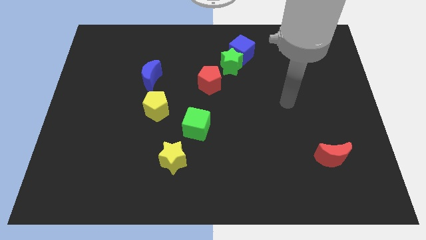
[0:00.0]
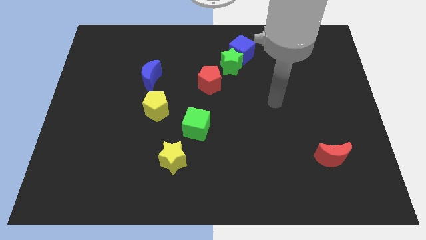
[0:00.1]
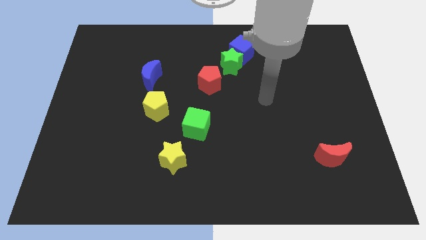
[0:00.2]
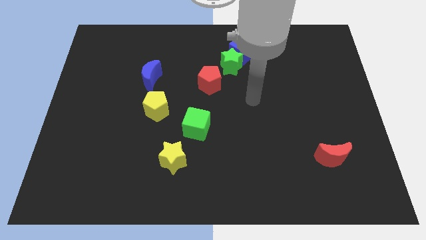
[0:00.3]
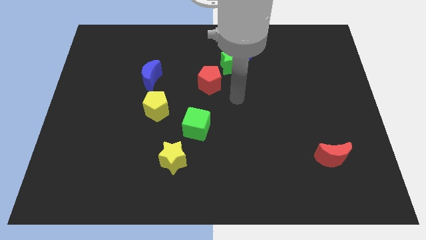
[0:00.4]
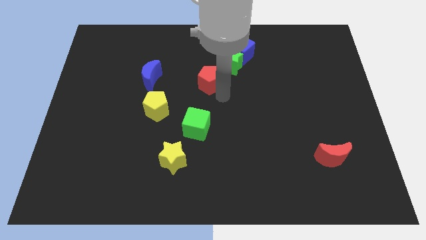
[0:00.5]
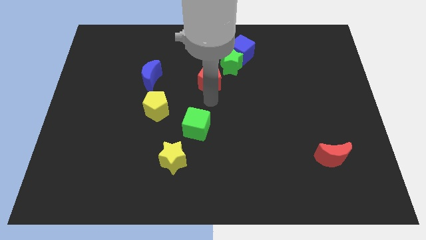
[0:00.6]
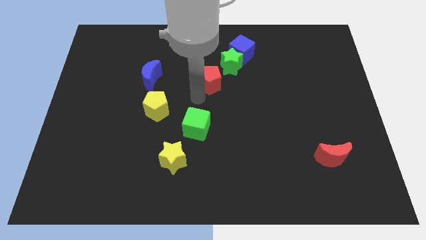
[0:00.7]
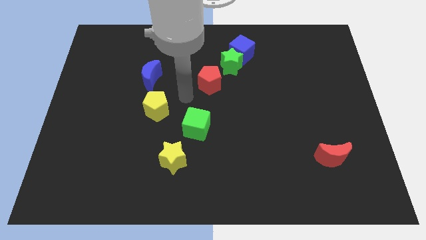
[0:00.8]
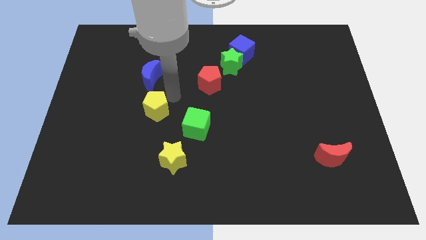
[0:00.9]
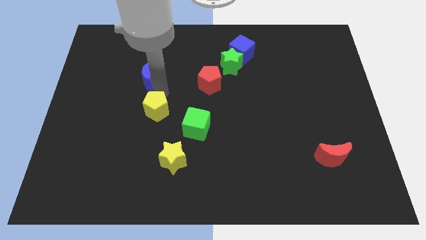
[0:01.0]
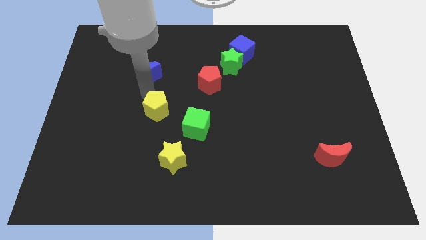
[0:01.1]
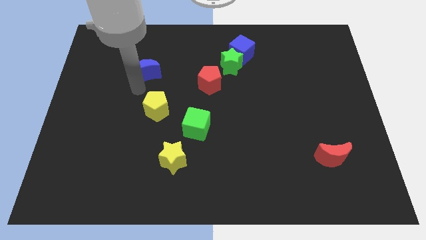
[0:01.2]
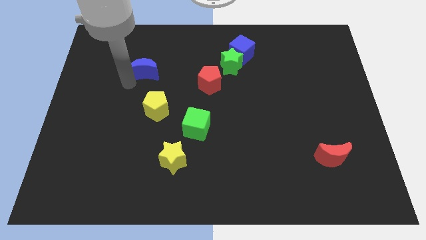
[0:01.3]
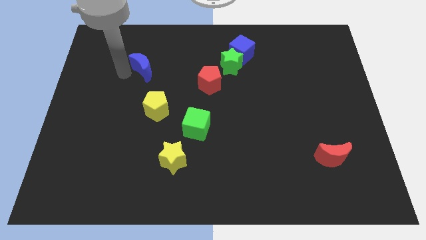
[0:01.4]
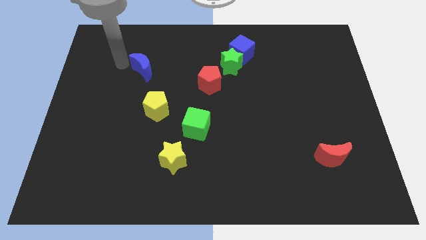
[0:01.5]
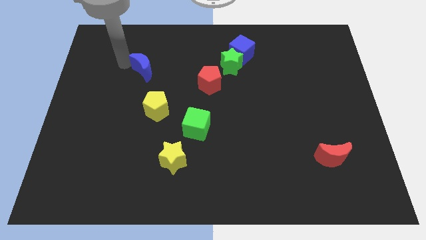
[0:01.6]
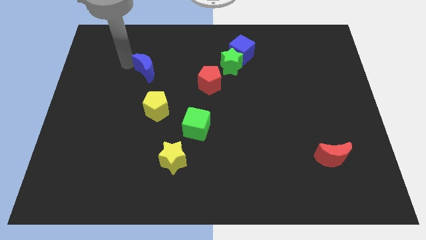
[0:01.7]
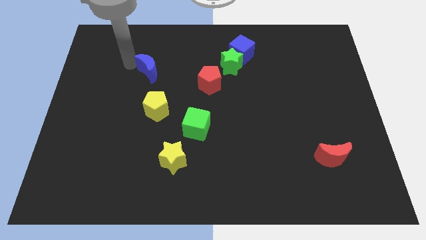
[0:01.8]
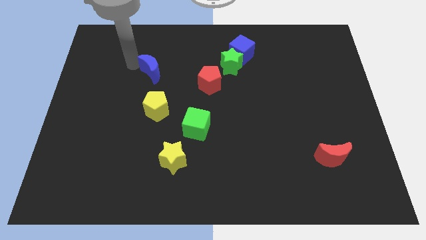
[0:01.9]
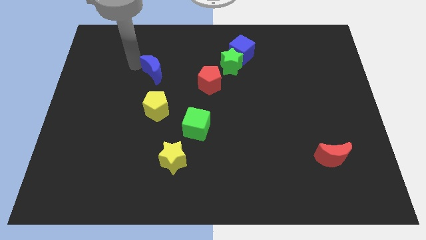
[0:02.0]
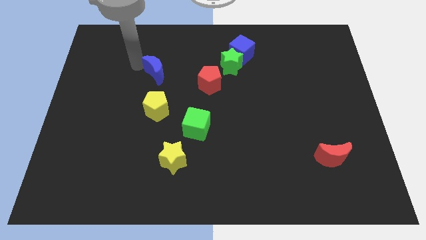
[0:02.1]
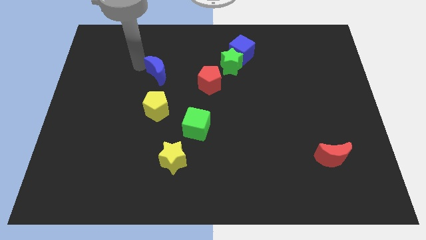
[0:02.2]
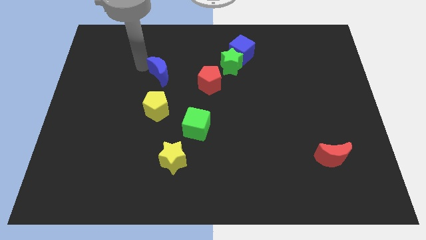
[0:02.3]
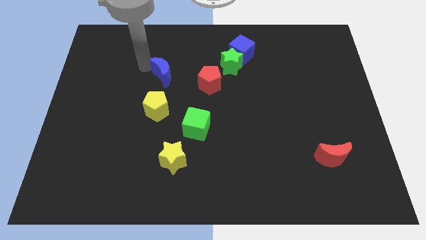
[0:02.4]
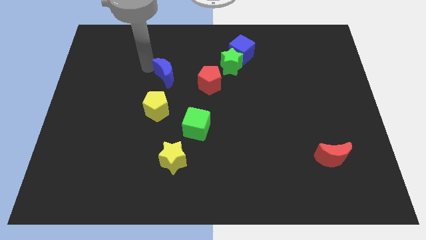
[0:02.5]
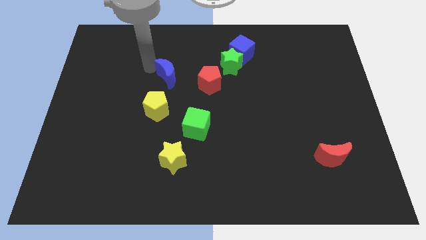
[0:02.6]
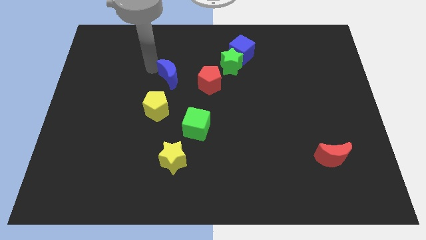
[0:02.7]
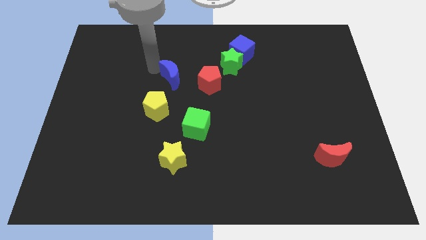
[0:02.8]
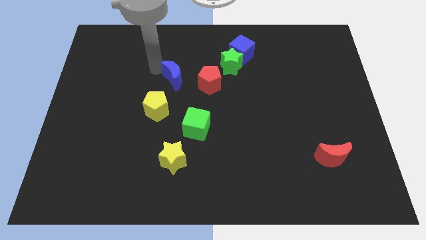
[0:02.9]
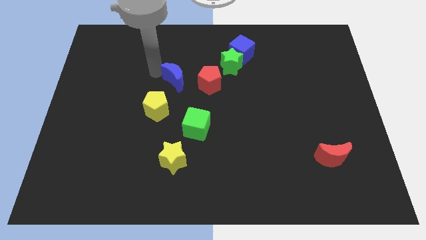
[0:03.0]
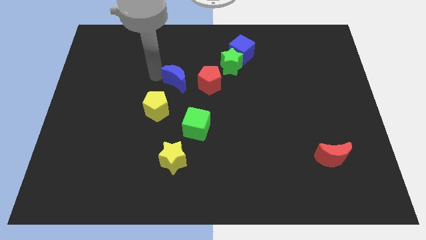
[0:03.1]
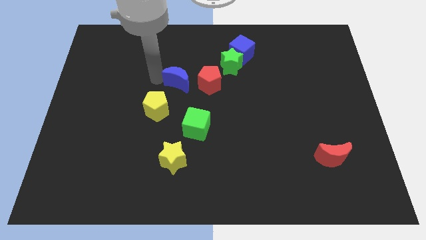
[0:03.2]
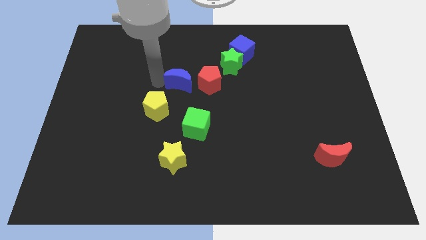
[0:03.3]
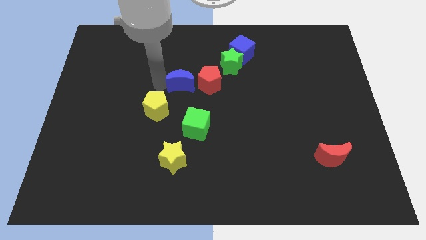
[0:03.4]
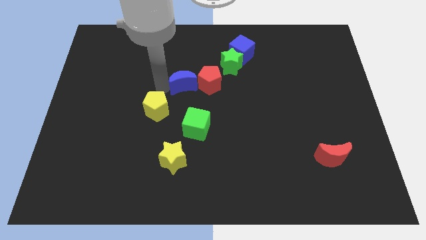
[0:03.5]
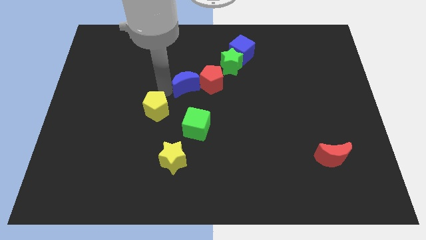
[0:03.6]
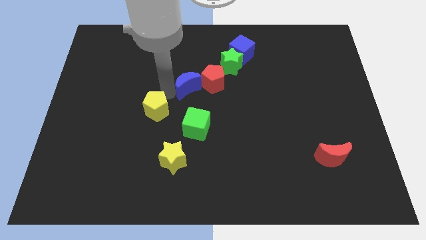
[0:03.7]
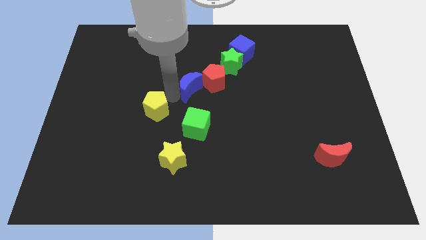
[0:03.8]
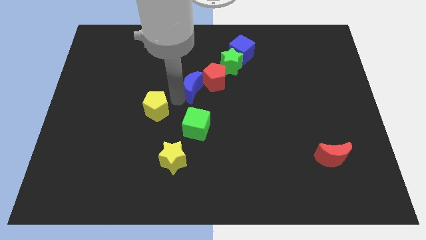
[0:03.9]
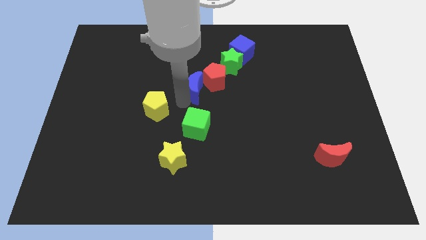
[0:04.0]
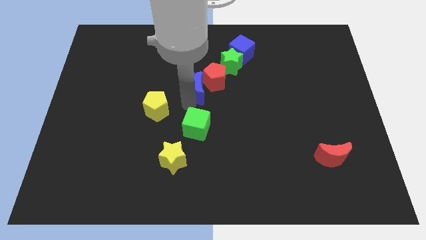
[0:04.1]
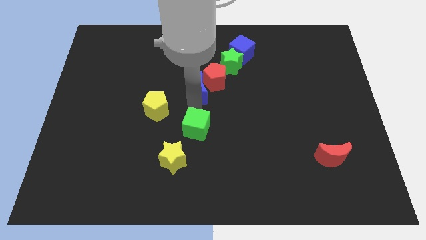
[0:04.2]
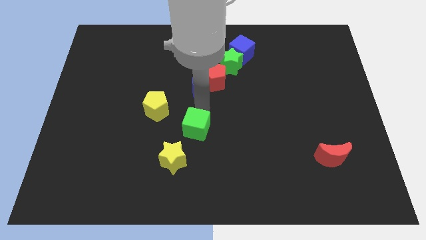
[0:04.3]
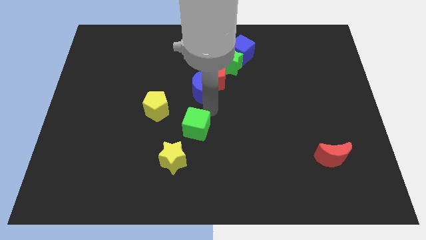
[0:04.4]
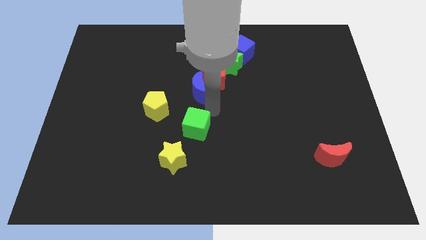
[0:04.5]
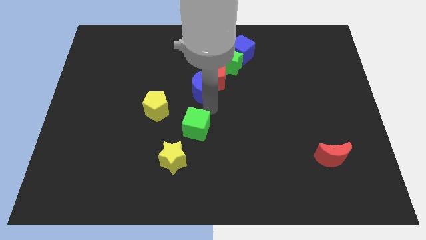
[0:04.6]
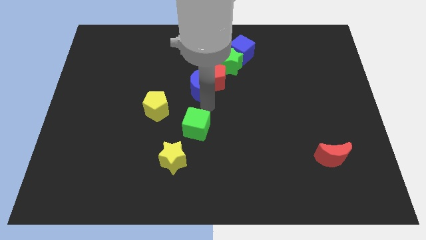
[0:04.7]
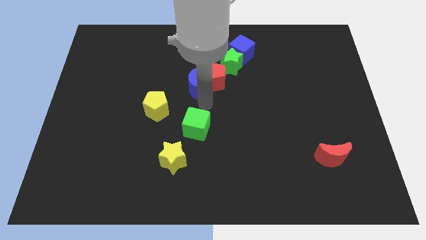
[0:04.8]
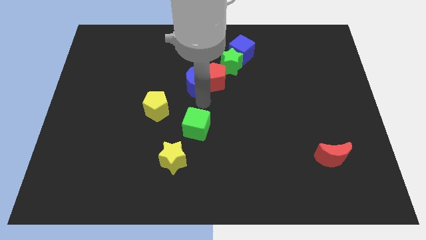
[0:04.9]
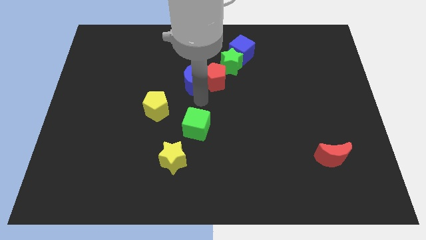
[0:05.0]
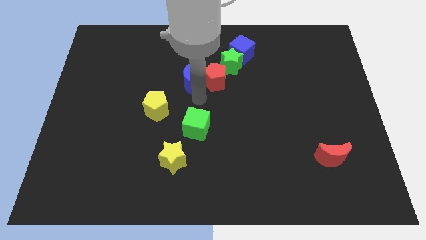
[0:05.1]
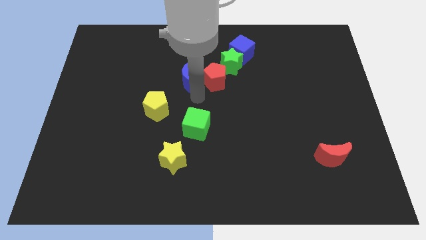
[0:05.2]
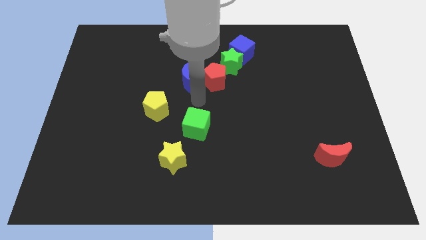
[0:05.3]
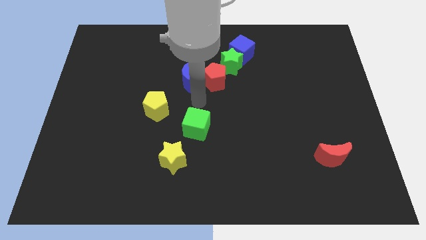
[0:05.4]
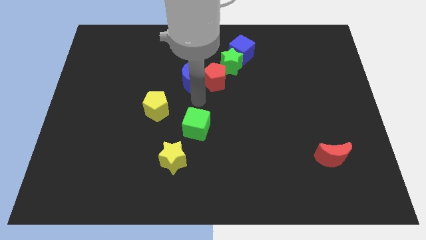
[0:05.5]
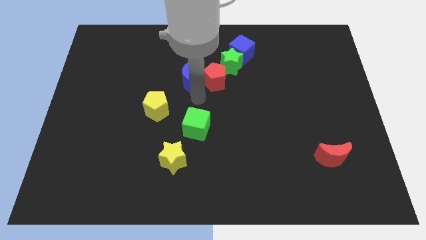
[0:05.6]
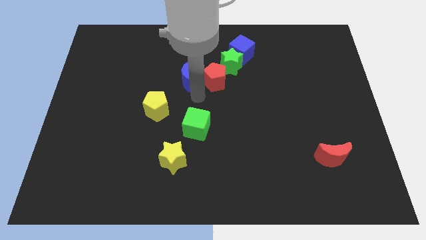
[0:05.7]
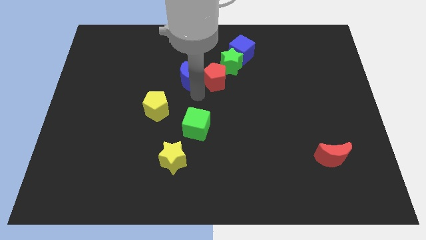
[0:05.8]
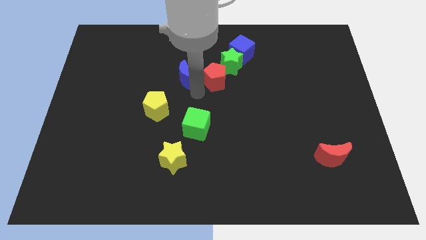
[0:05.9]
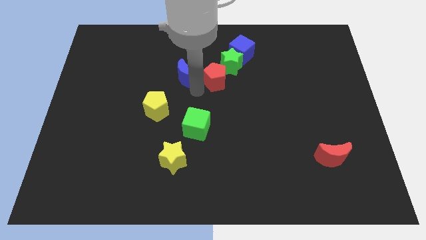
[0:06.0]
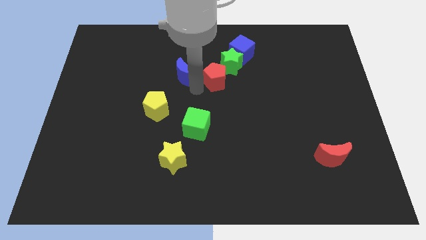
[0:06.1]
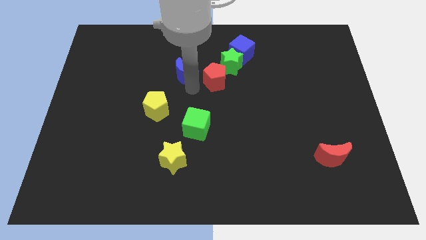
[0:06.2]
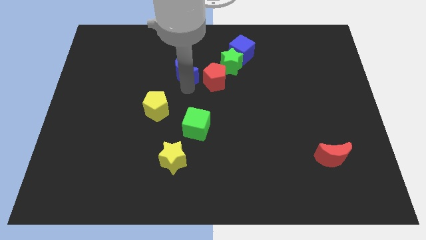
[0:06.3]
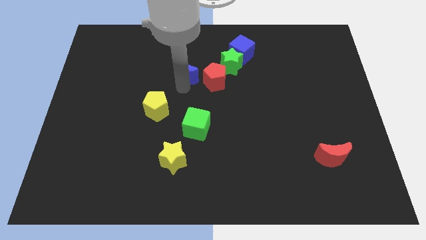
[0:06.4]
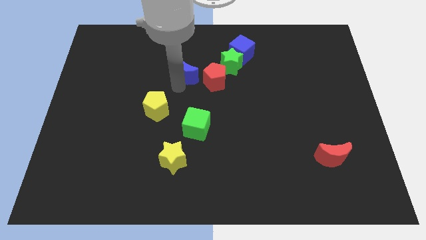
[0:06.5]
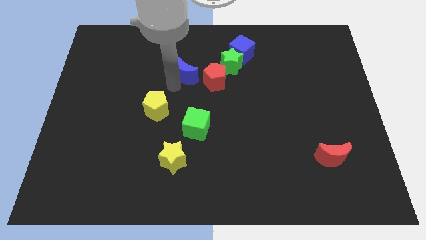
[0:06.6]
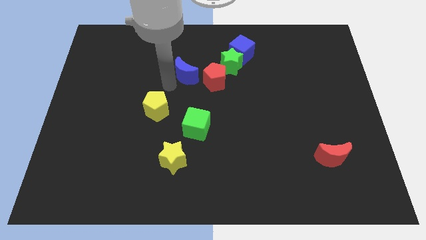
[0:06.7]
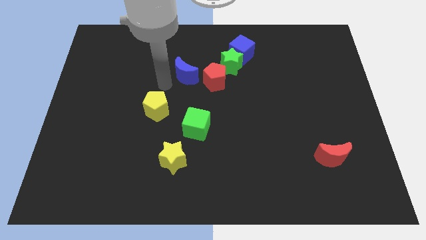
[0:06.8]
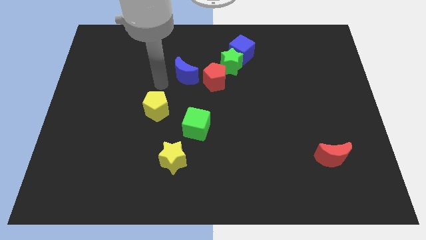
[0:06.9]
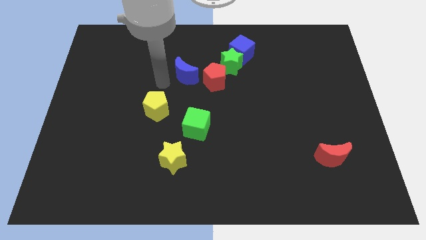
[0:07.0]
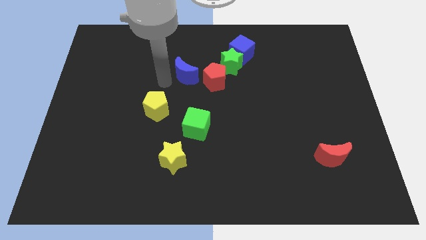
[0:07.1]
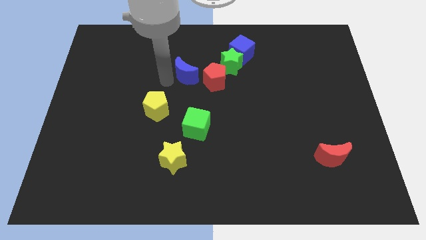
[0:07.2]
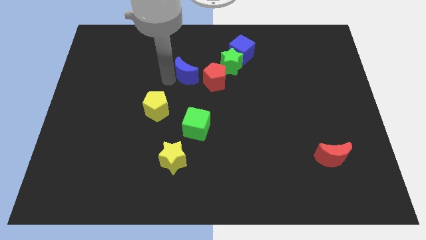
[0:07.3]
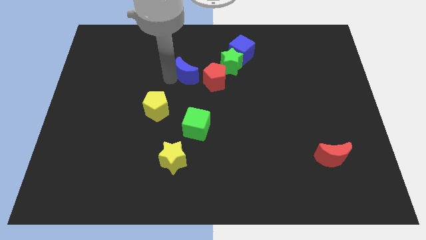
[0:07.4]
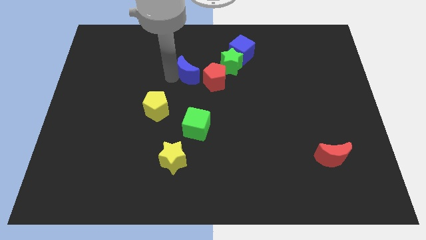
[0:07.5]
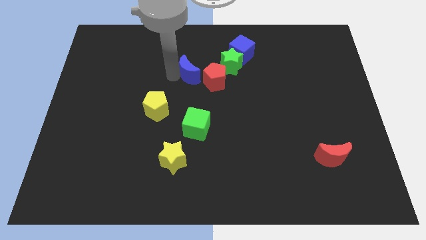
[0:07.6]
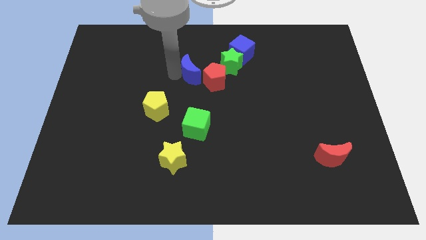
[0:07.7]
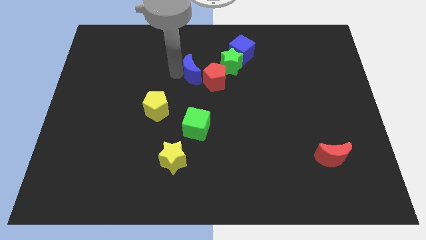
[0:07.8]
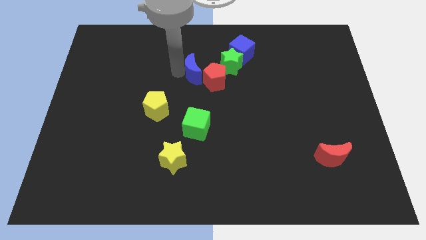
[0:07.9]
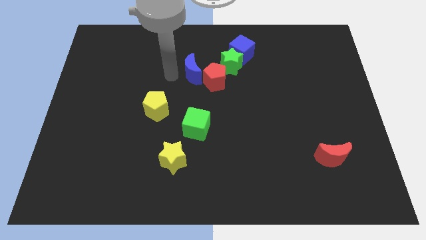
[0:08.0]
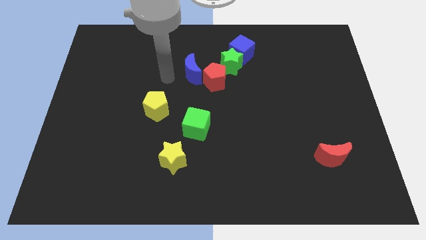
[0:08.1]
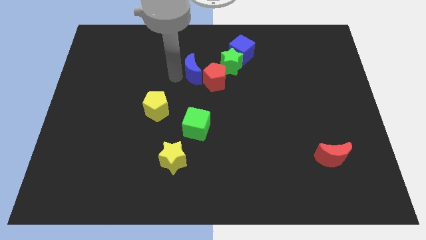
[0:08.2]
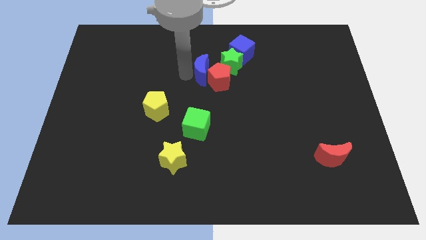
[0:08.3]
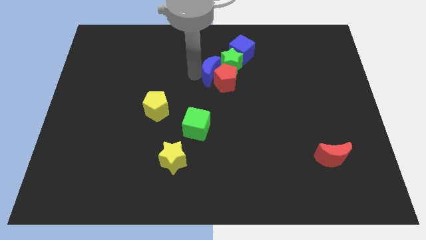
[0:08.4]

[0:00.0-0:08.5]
push the blue moon close to the green star
